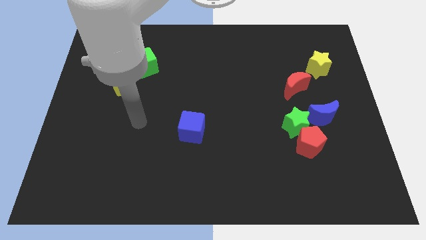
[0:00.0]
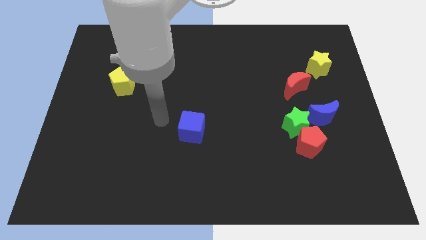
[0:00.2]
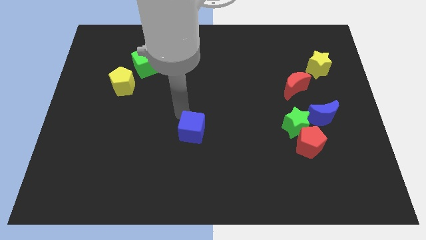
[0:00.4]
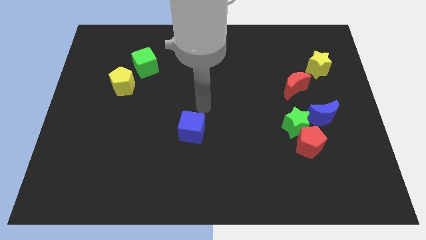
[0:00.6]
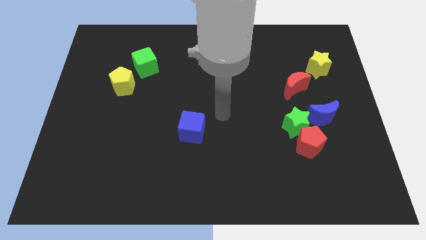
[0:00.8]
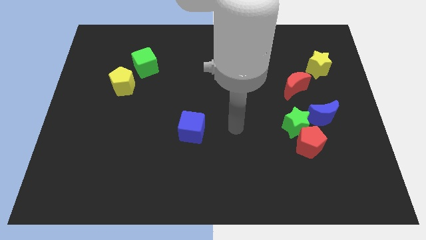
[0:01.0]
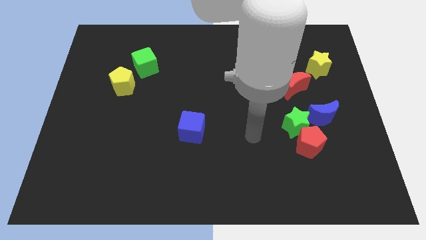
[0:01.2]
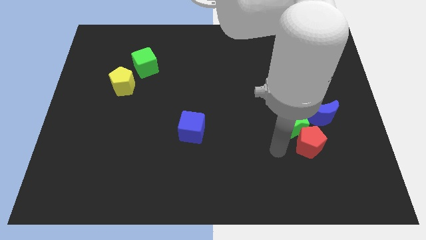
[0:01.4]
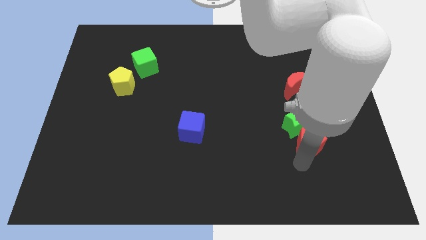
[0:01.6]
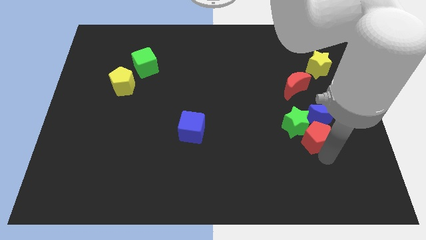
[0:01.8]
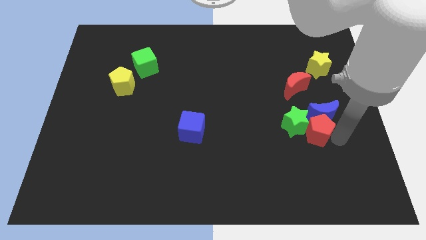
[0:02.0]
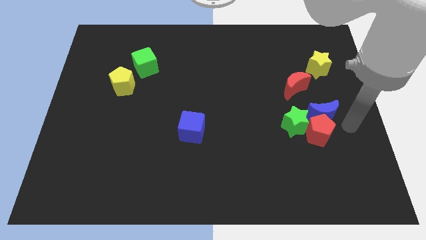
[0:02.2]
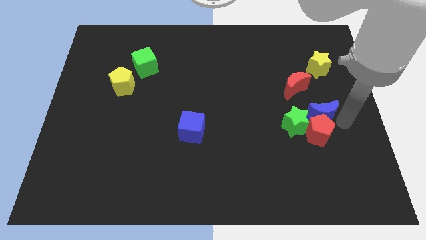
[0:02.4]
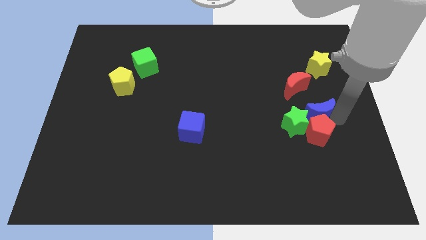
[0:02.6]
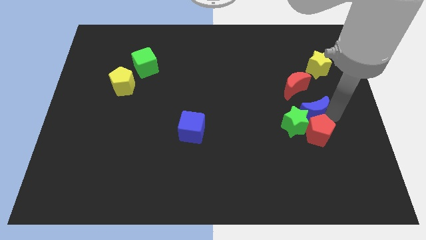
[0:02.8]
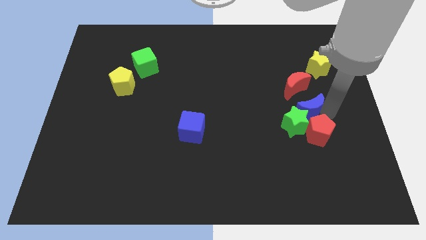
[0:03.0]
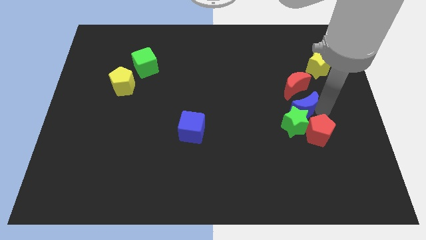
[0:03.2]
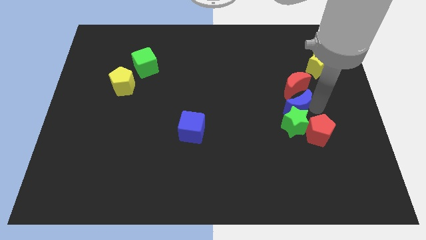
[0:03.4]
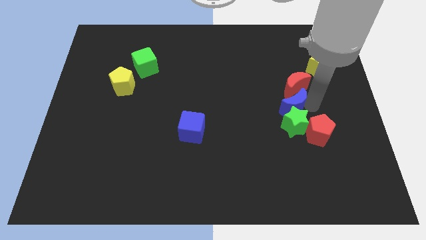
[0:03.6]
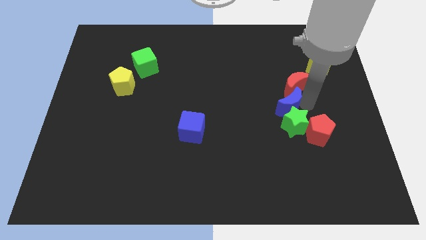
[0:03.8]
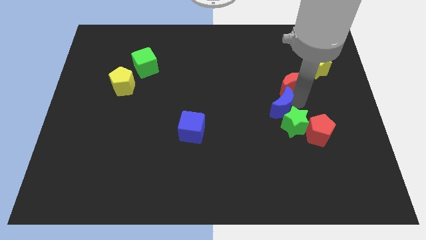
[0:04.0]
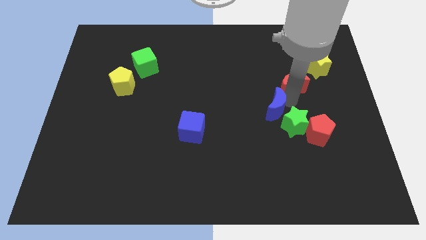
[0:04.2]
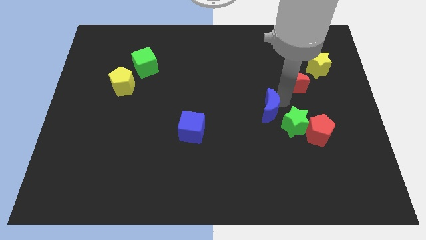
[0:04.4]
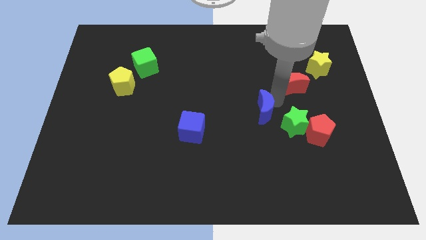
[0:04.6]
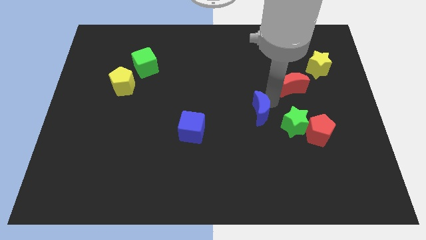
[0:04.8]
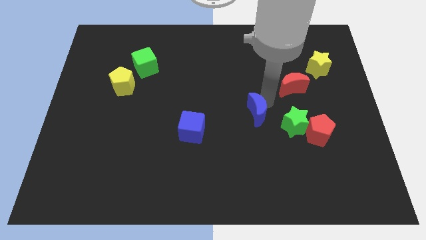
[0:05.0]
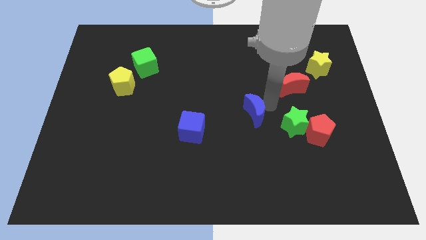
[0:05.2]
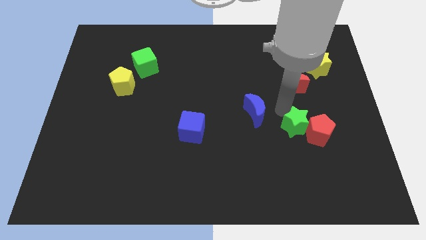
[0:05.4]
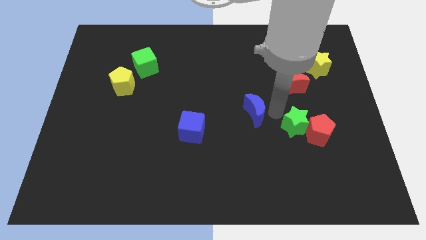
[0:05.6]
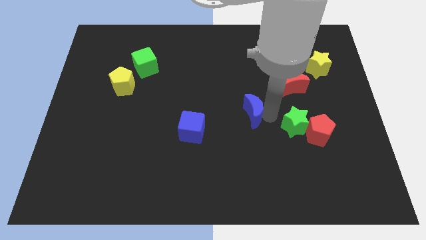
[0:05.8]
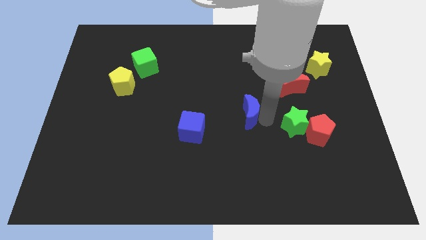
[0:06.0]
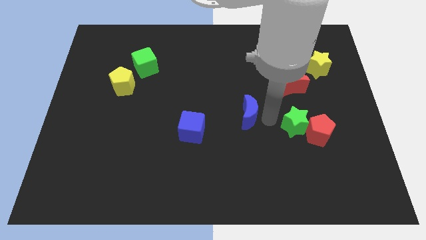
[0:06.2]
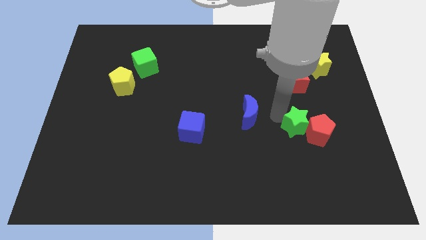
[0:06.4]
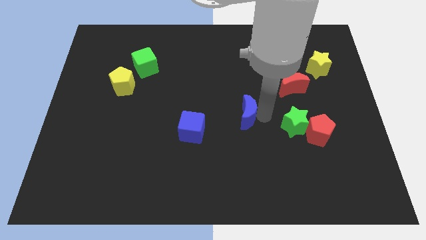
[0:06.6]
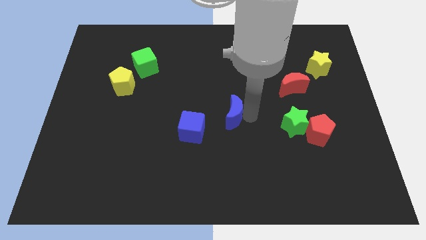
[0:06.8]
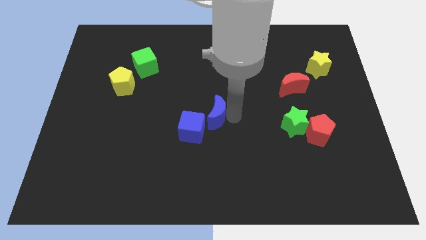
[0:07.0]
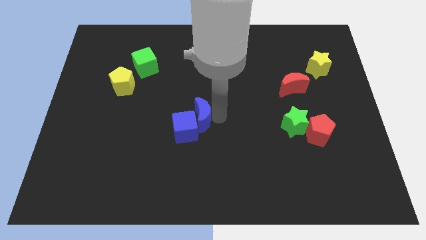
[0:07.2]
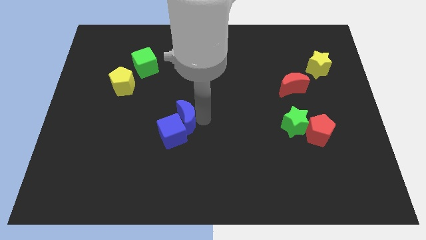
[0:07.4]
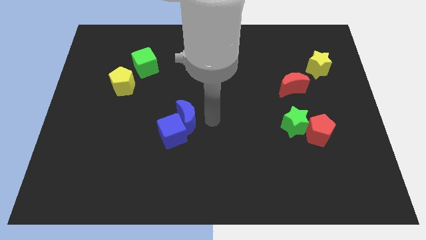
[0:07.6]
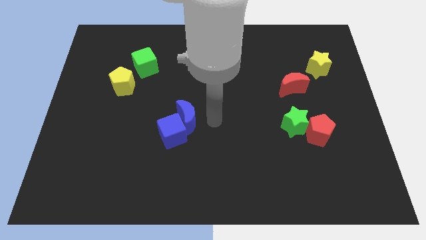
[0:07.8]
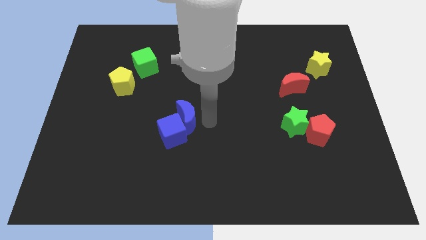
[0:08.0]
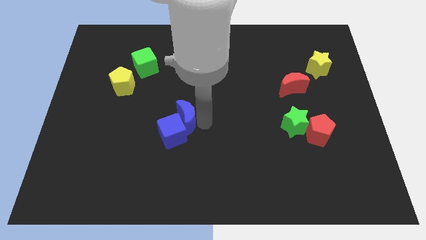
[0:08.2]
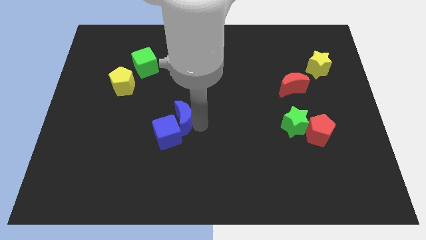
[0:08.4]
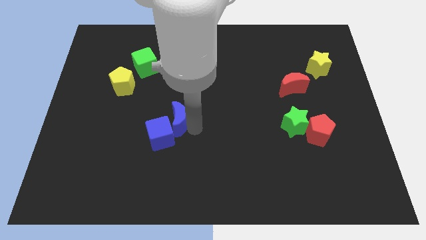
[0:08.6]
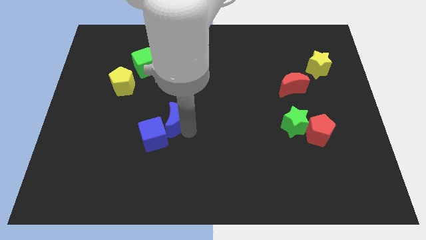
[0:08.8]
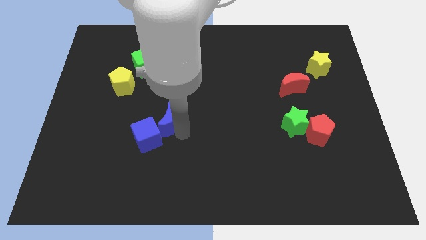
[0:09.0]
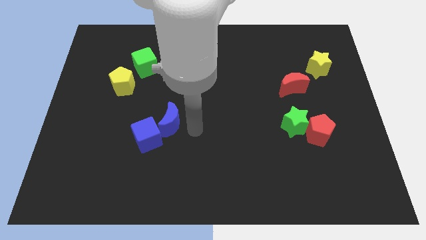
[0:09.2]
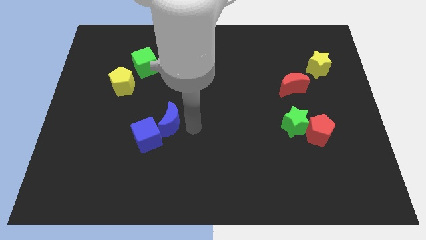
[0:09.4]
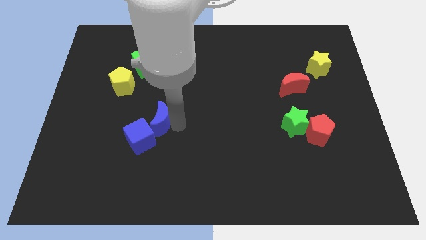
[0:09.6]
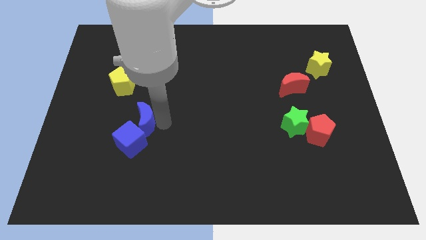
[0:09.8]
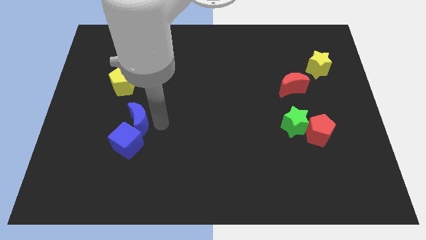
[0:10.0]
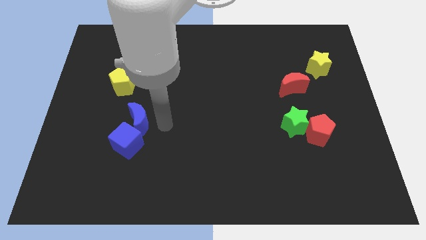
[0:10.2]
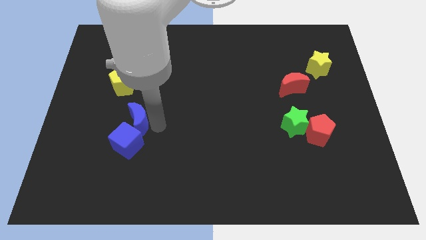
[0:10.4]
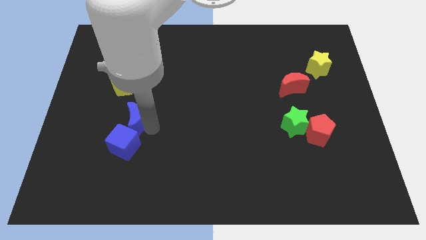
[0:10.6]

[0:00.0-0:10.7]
move the blue moon below the yellow pentagon

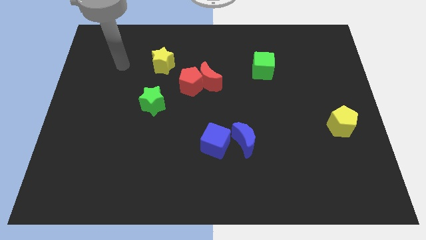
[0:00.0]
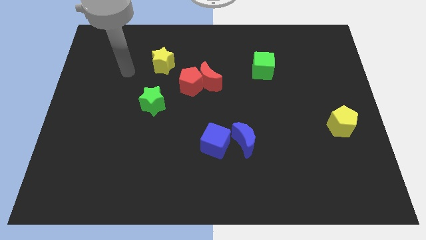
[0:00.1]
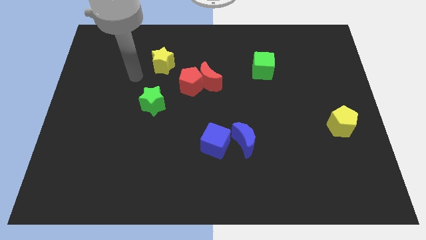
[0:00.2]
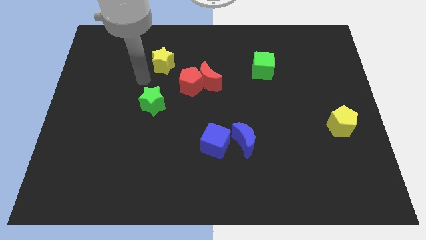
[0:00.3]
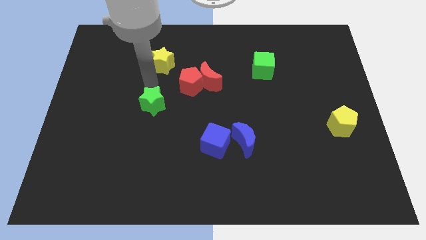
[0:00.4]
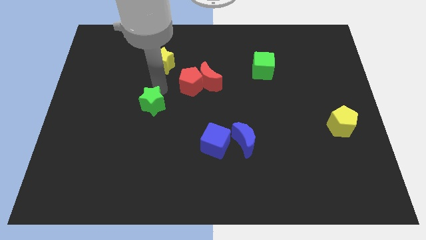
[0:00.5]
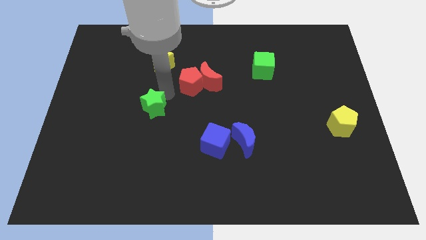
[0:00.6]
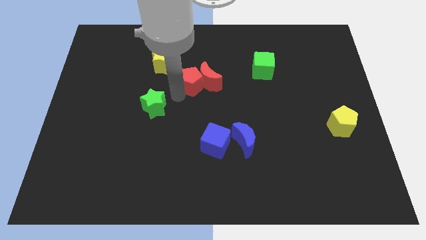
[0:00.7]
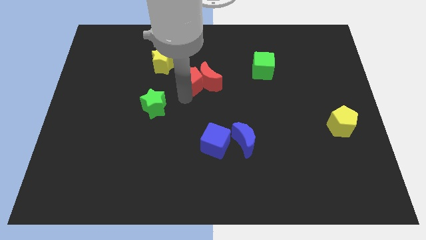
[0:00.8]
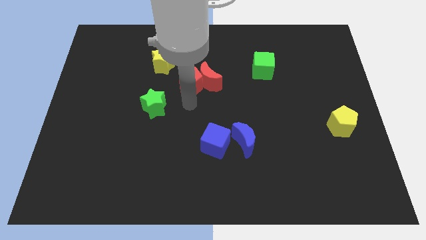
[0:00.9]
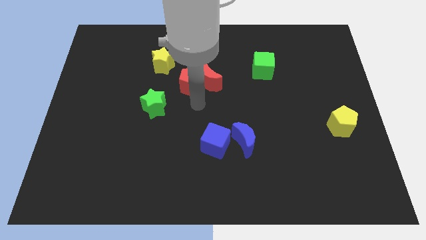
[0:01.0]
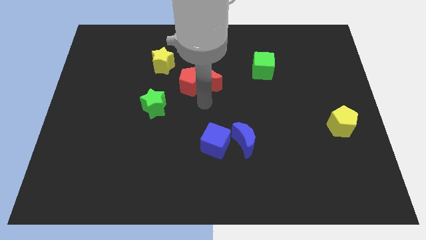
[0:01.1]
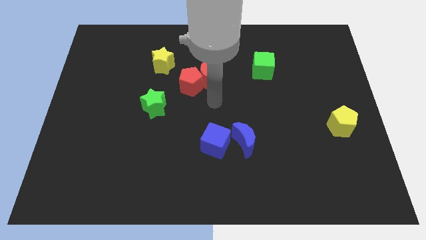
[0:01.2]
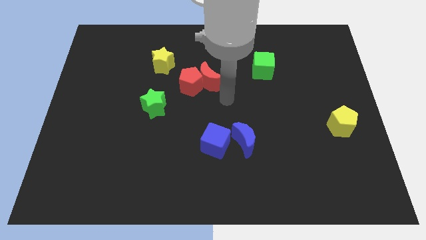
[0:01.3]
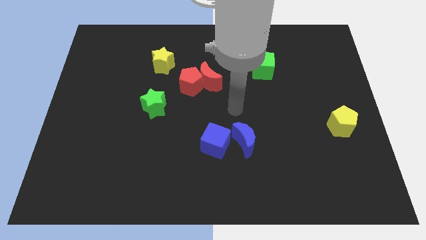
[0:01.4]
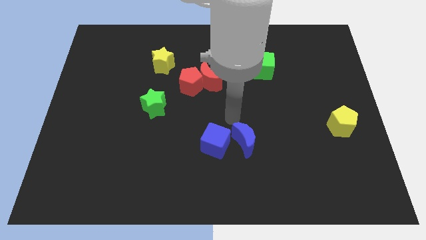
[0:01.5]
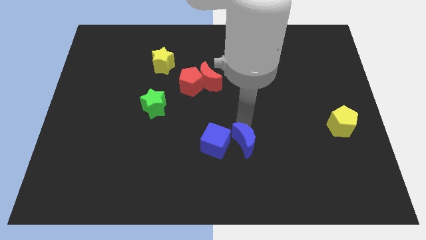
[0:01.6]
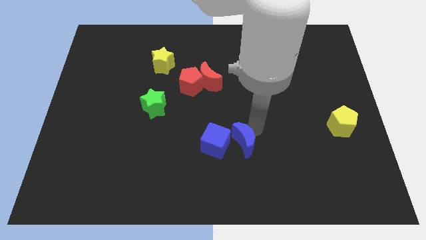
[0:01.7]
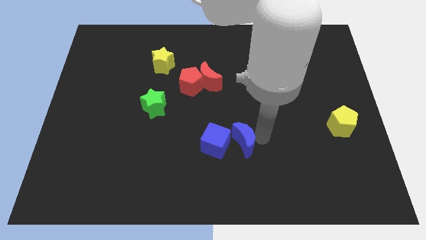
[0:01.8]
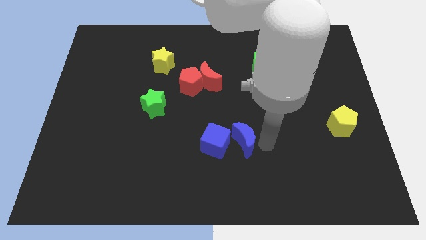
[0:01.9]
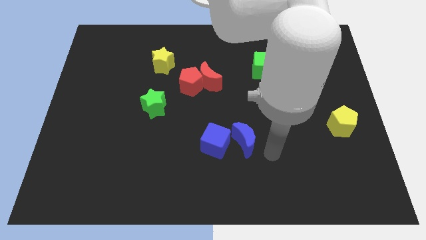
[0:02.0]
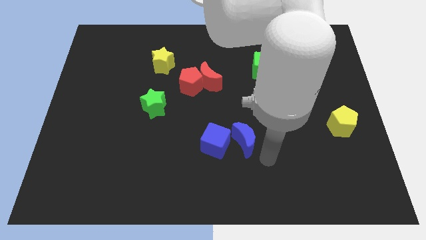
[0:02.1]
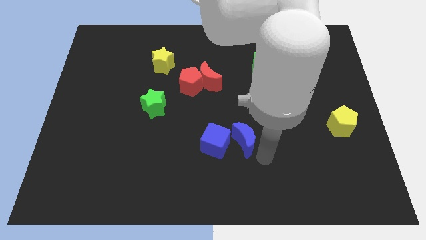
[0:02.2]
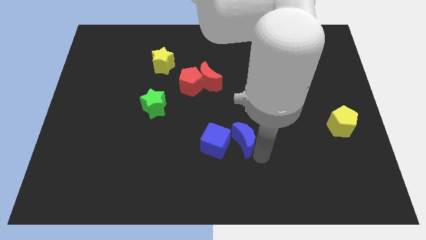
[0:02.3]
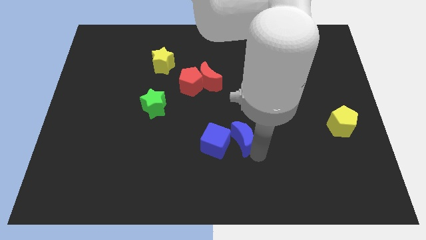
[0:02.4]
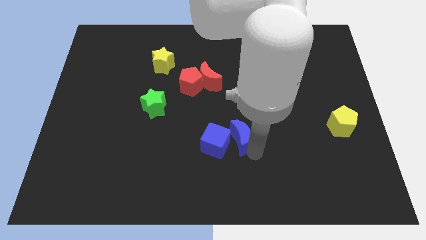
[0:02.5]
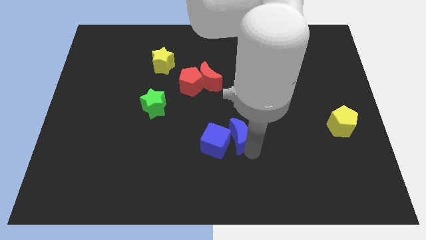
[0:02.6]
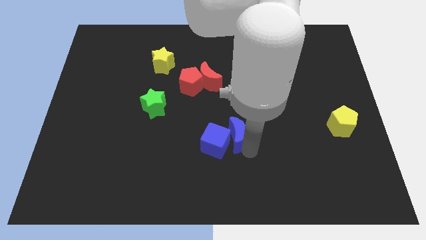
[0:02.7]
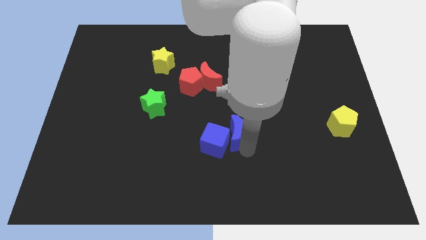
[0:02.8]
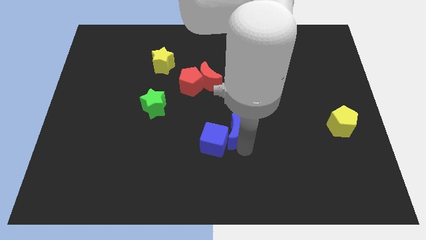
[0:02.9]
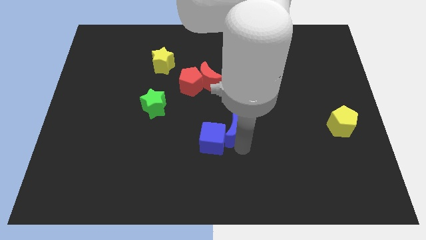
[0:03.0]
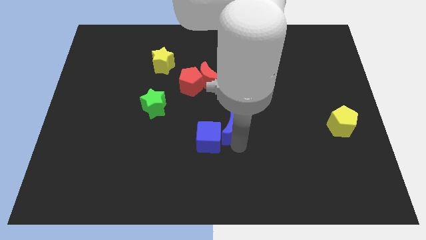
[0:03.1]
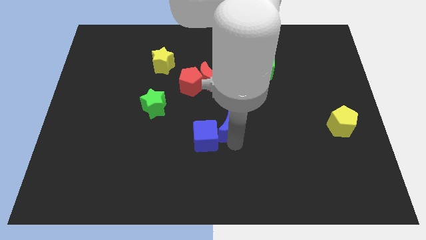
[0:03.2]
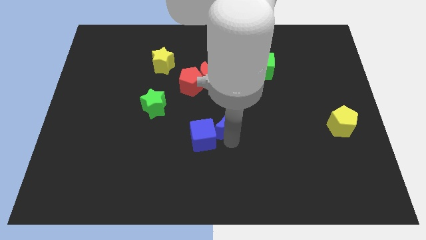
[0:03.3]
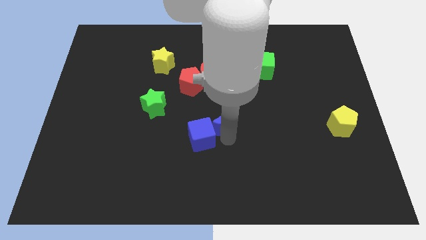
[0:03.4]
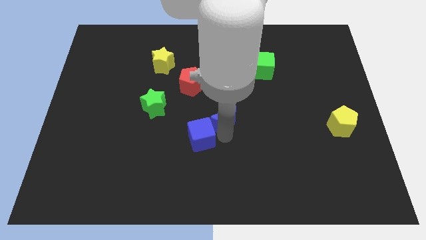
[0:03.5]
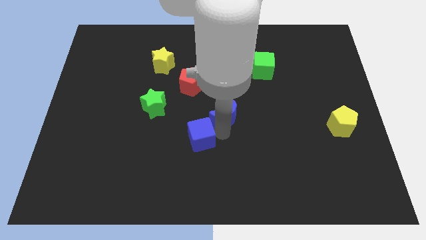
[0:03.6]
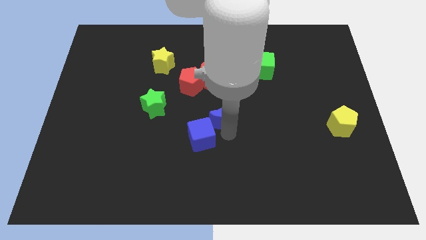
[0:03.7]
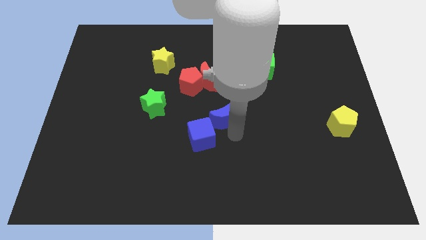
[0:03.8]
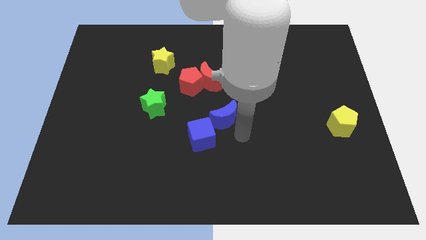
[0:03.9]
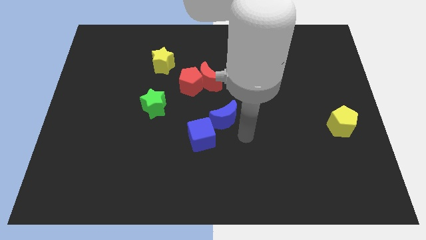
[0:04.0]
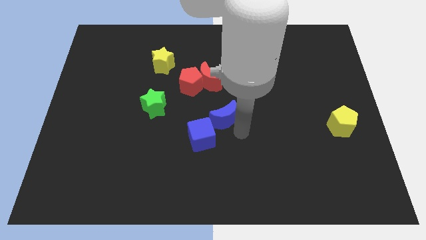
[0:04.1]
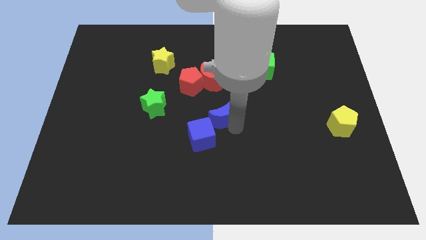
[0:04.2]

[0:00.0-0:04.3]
move the blue moon to the top side of the blue cube
